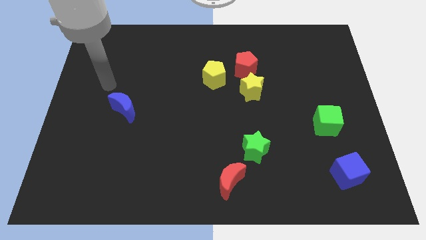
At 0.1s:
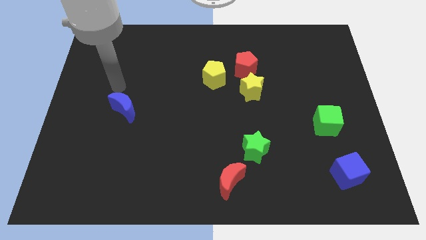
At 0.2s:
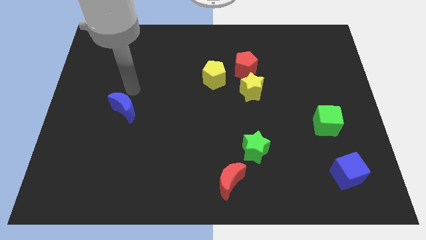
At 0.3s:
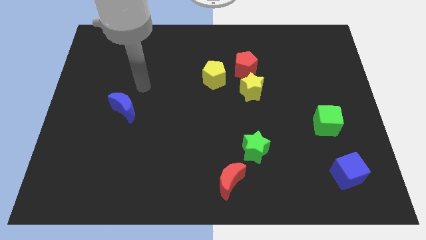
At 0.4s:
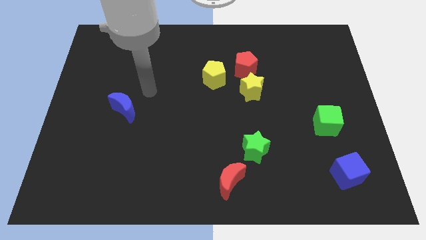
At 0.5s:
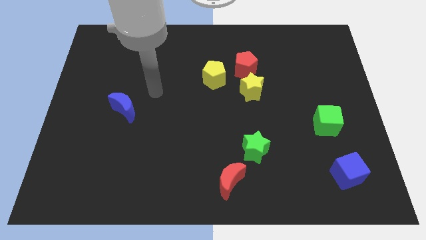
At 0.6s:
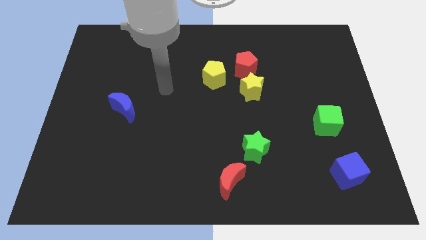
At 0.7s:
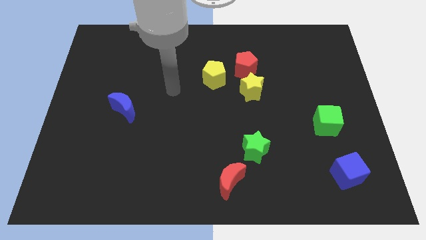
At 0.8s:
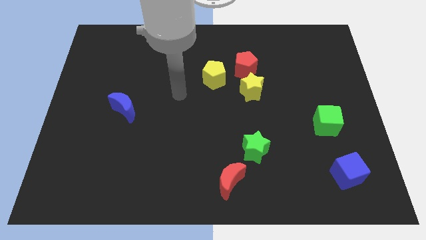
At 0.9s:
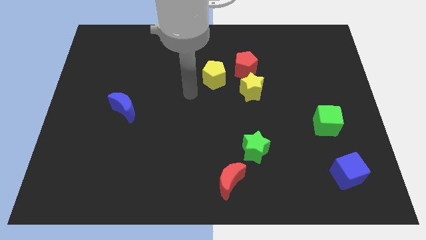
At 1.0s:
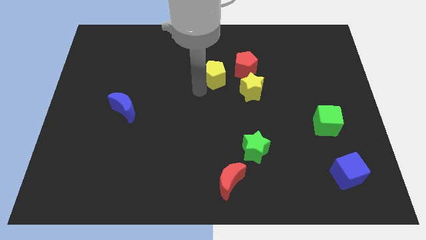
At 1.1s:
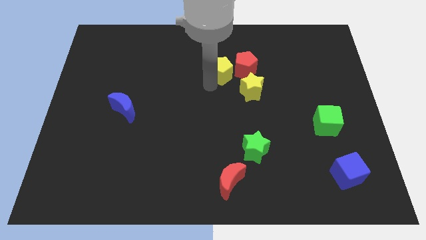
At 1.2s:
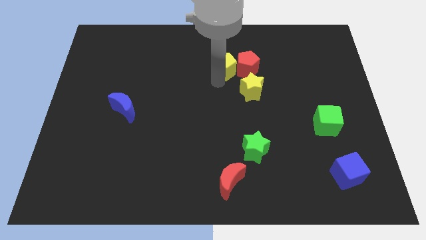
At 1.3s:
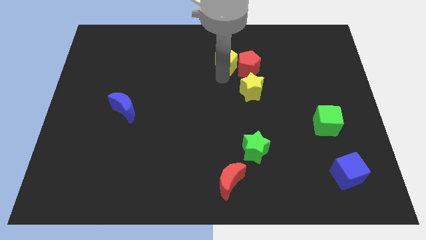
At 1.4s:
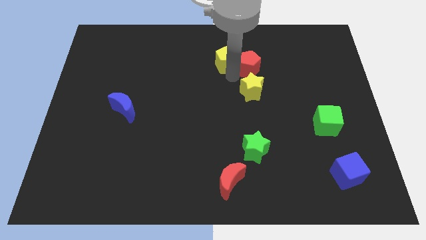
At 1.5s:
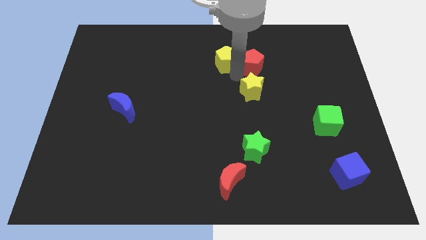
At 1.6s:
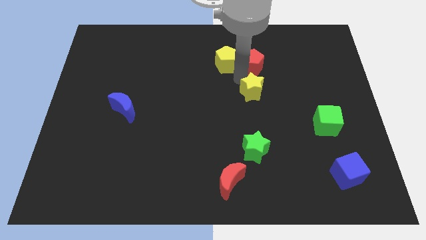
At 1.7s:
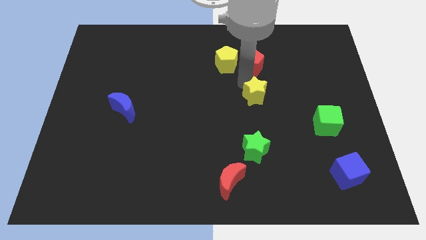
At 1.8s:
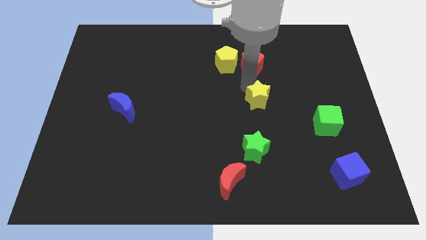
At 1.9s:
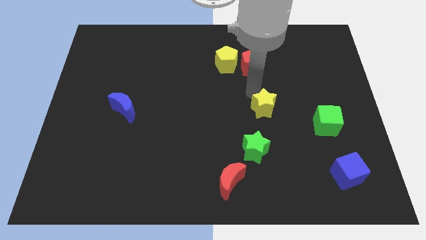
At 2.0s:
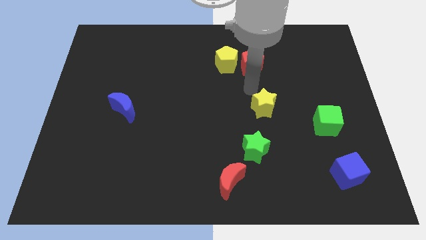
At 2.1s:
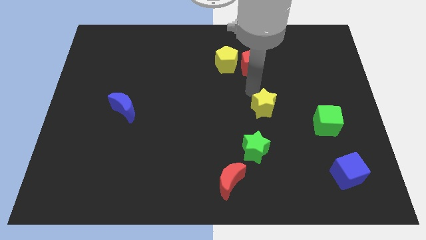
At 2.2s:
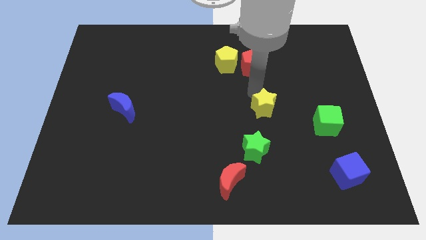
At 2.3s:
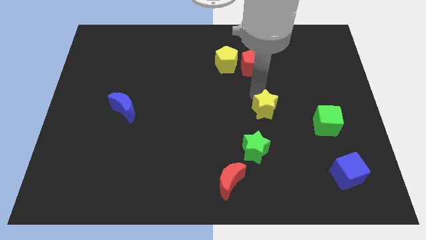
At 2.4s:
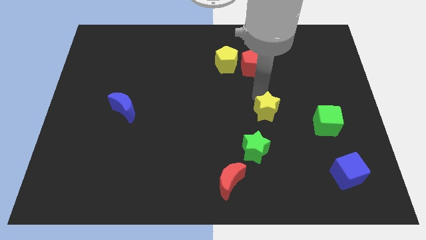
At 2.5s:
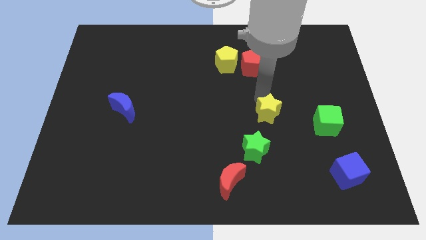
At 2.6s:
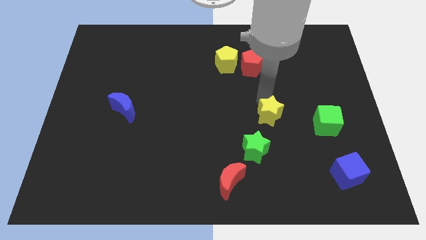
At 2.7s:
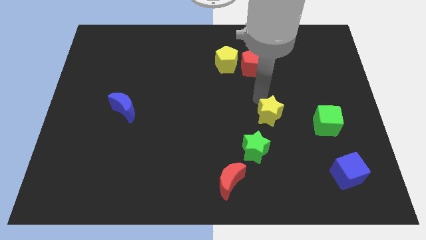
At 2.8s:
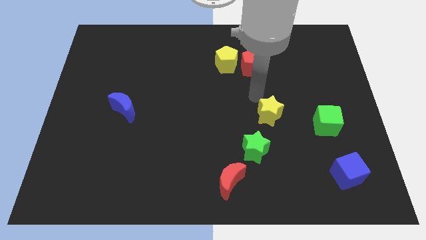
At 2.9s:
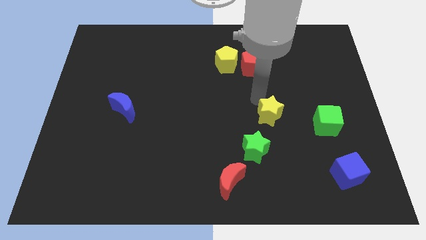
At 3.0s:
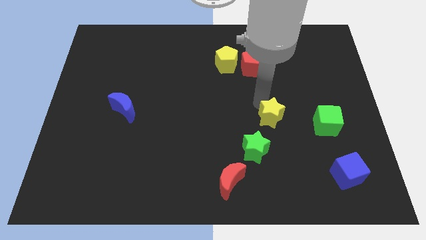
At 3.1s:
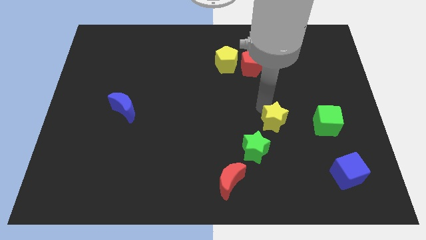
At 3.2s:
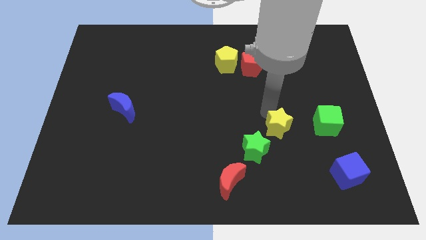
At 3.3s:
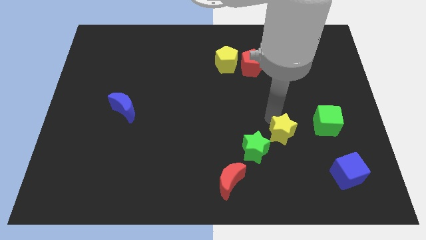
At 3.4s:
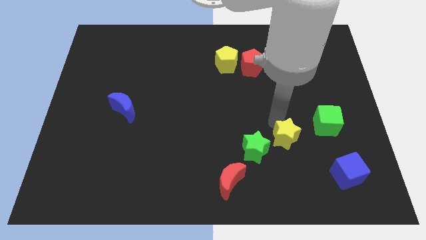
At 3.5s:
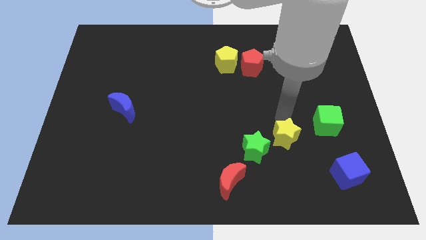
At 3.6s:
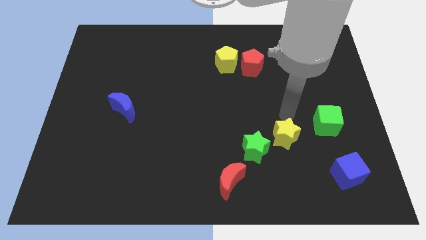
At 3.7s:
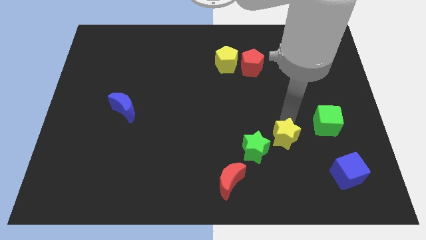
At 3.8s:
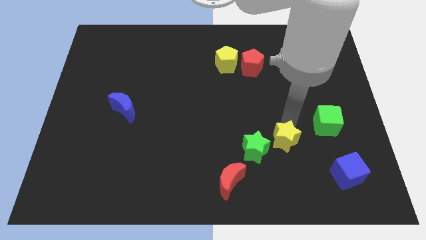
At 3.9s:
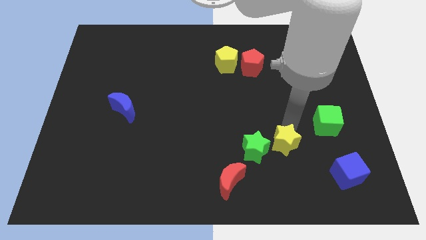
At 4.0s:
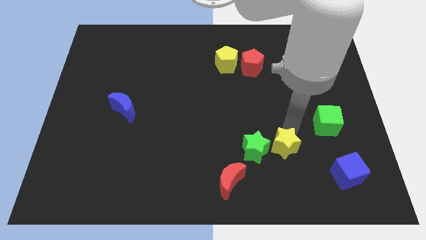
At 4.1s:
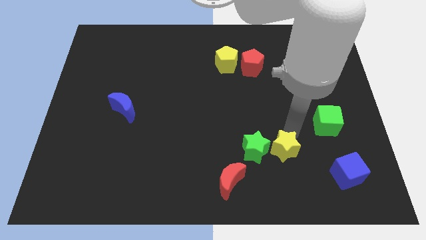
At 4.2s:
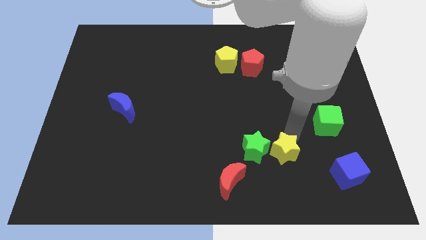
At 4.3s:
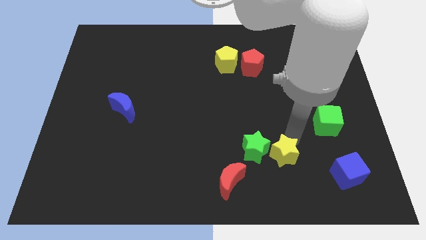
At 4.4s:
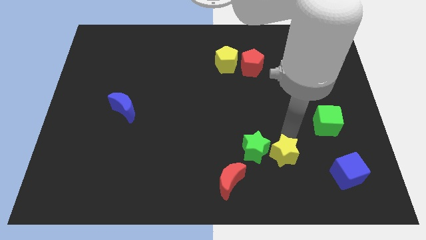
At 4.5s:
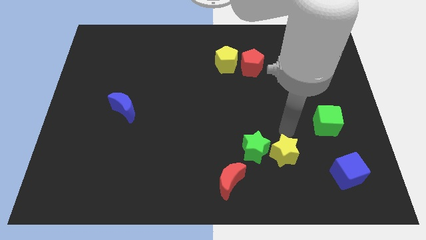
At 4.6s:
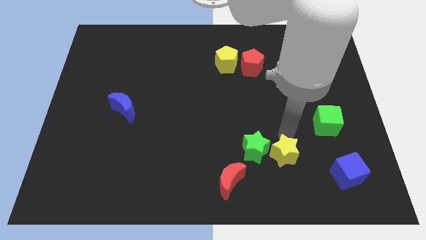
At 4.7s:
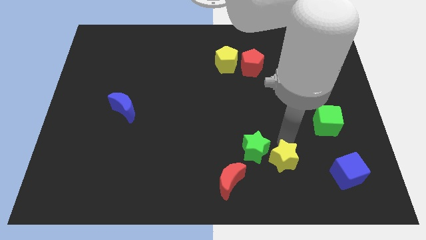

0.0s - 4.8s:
put the yellow star just right of the red moon

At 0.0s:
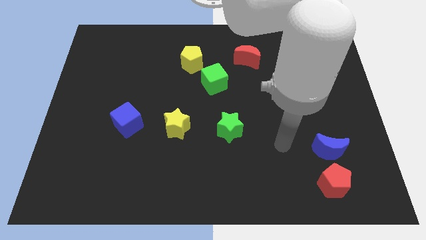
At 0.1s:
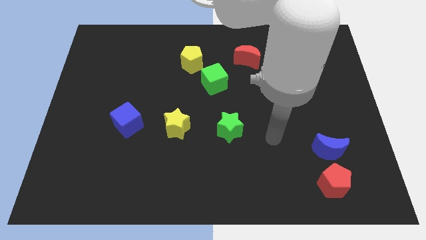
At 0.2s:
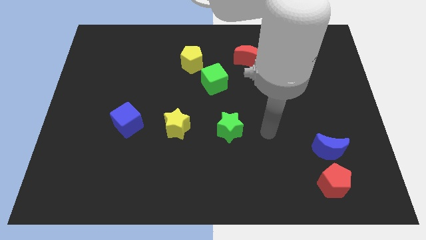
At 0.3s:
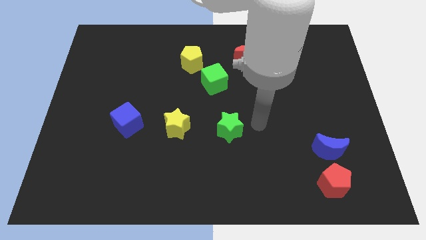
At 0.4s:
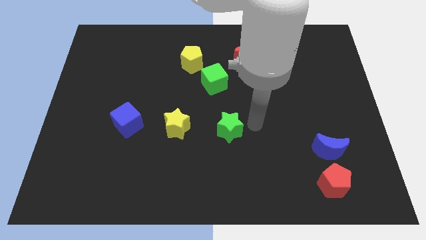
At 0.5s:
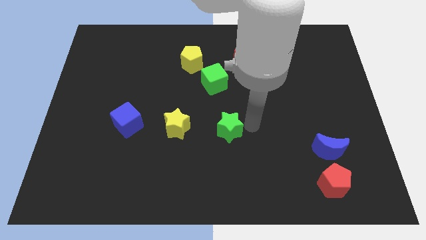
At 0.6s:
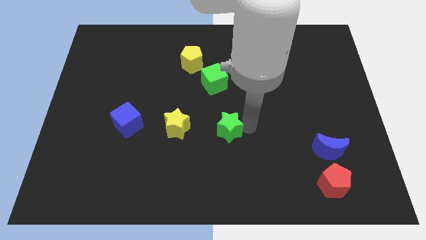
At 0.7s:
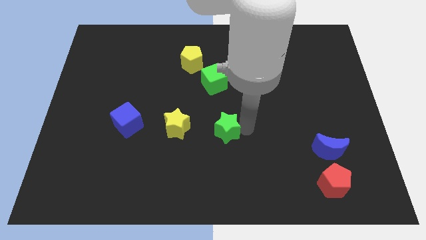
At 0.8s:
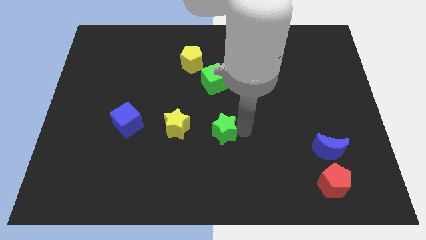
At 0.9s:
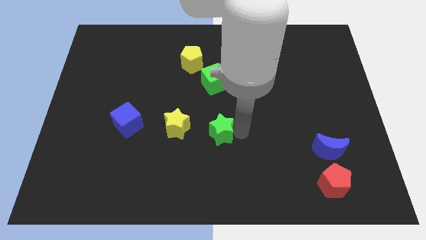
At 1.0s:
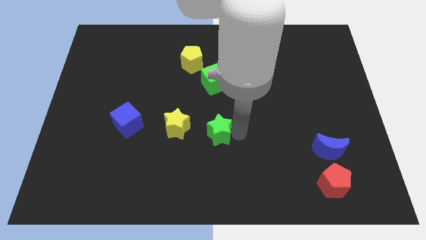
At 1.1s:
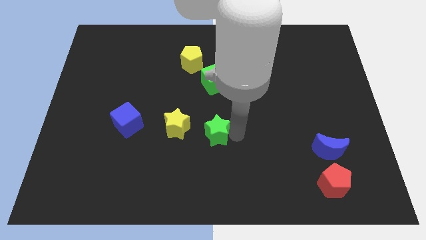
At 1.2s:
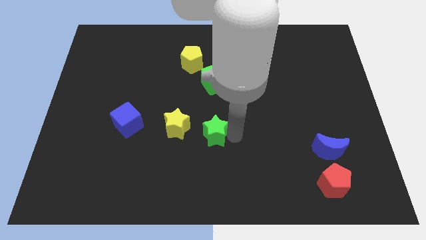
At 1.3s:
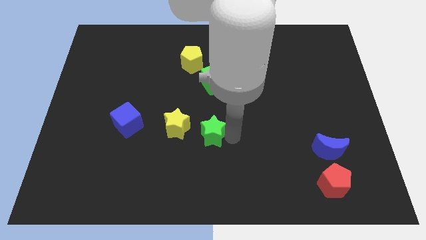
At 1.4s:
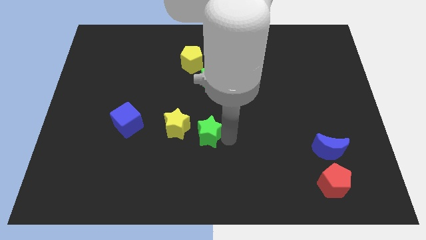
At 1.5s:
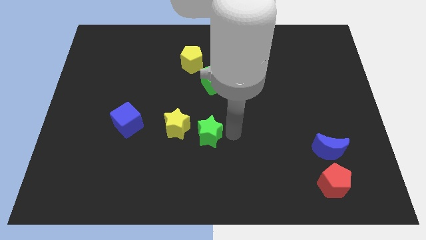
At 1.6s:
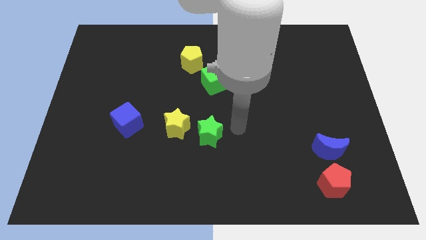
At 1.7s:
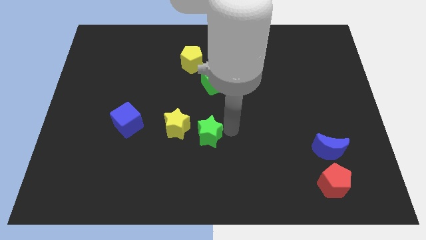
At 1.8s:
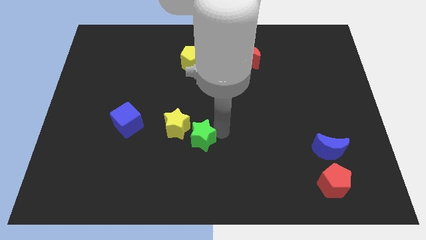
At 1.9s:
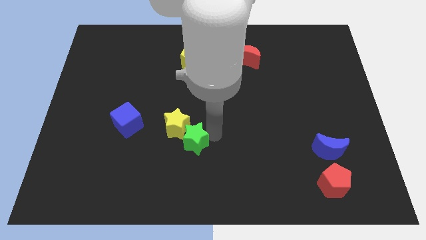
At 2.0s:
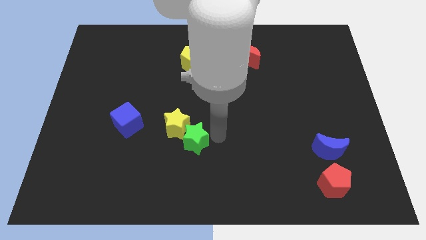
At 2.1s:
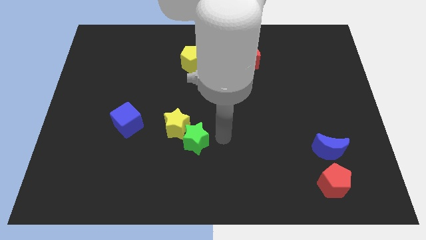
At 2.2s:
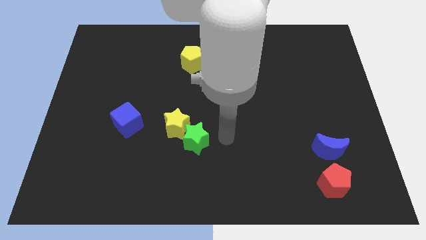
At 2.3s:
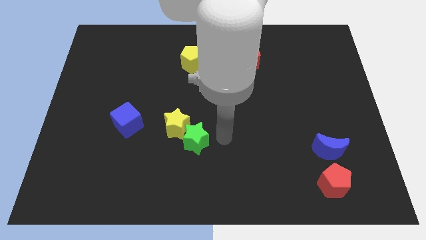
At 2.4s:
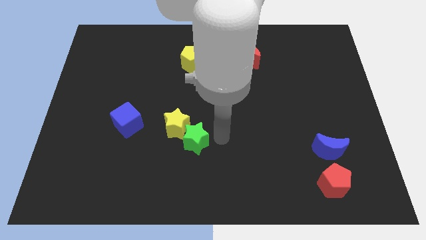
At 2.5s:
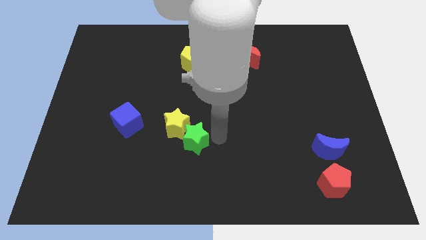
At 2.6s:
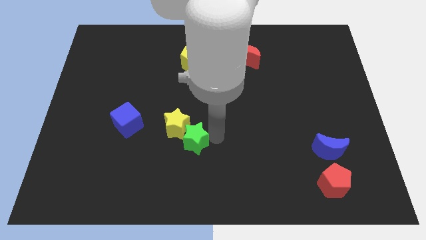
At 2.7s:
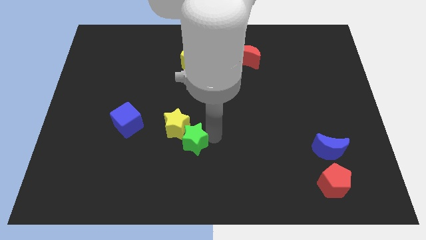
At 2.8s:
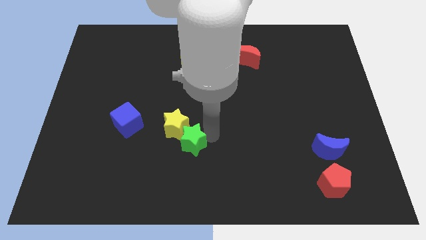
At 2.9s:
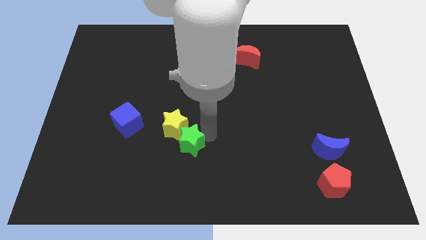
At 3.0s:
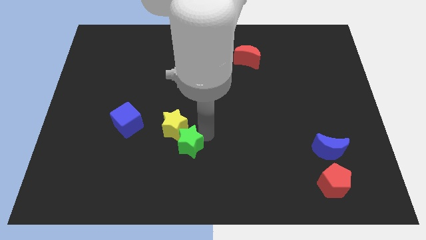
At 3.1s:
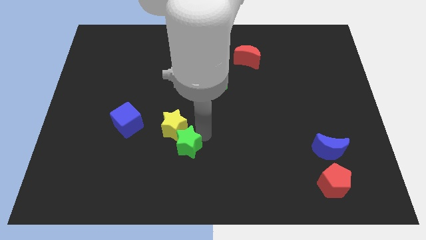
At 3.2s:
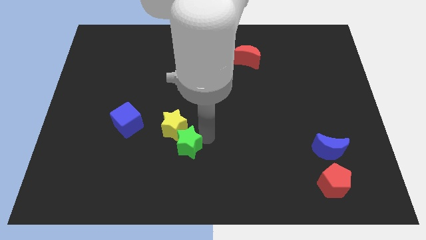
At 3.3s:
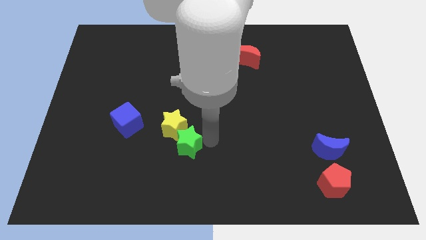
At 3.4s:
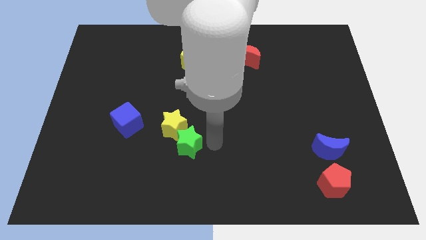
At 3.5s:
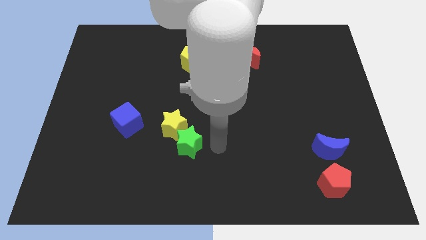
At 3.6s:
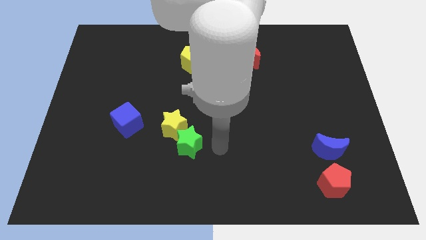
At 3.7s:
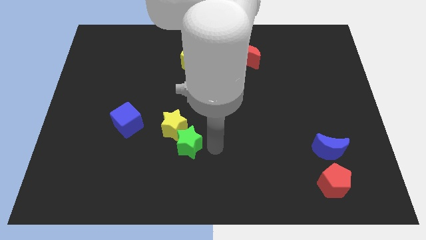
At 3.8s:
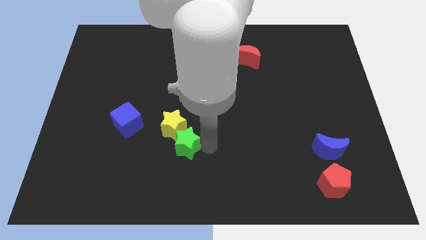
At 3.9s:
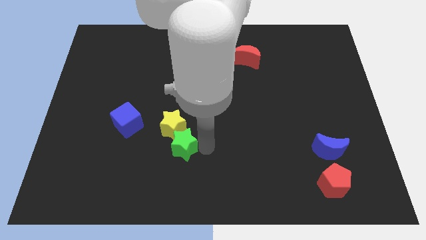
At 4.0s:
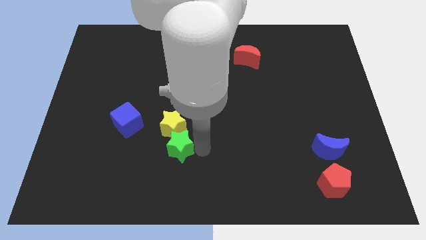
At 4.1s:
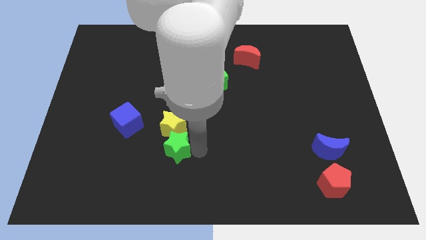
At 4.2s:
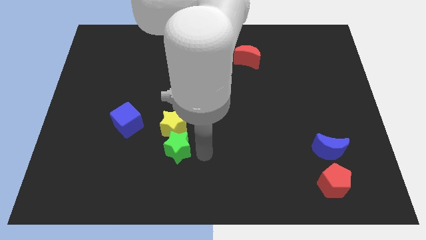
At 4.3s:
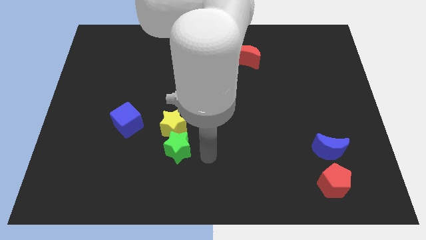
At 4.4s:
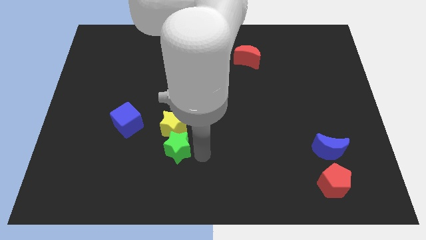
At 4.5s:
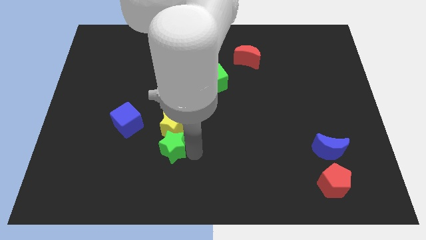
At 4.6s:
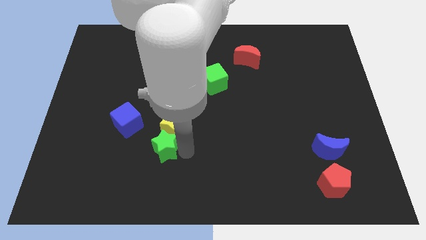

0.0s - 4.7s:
slide the green star to the bottom right side of the blue cube
